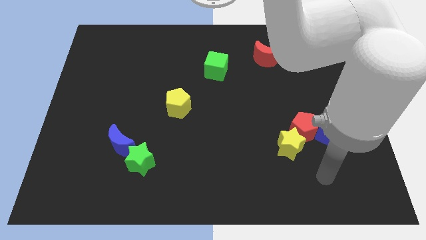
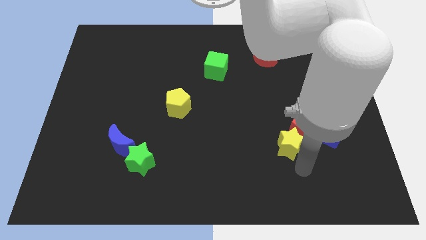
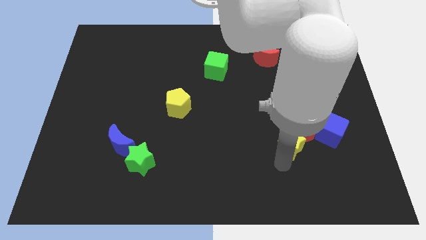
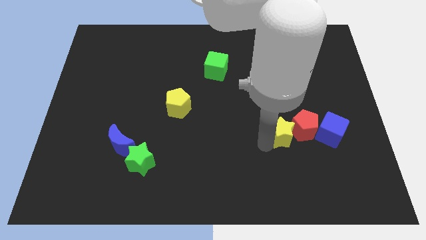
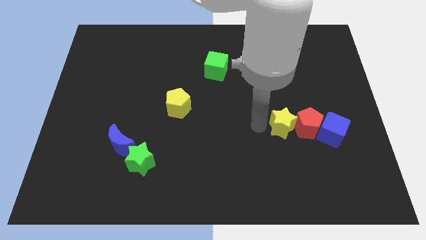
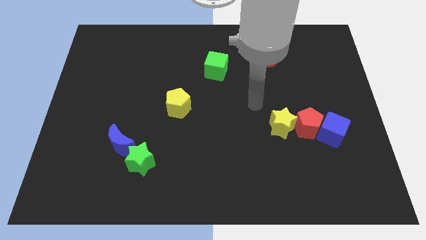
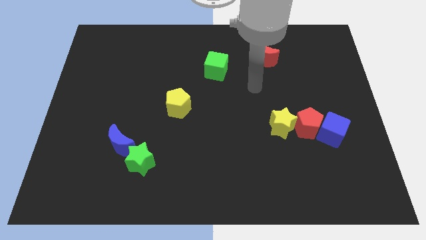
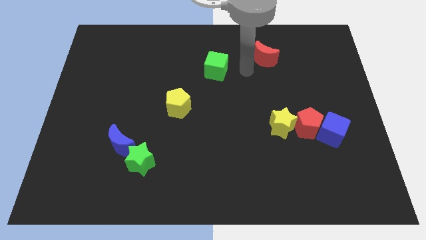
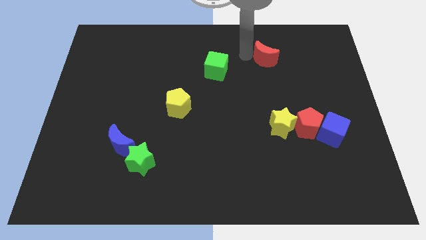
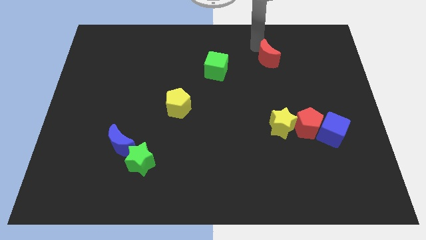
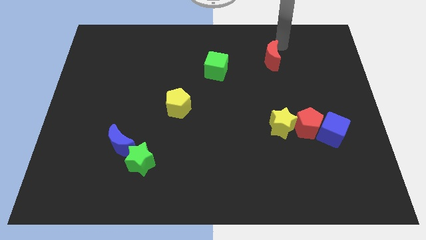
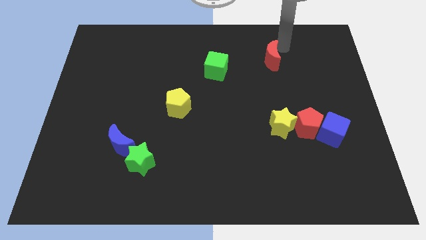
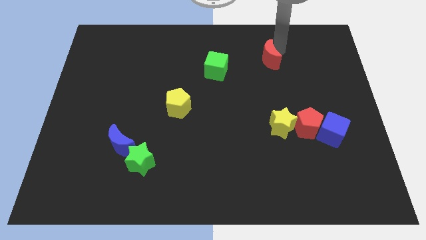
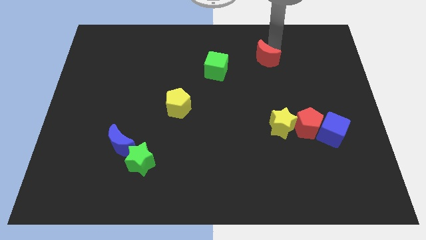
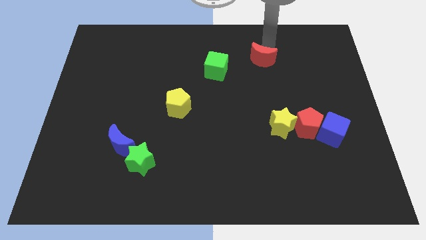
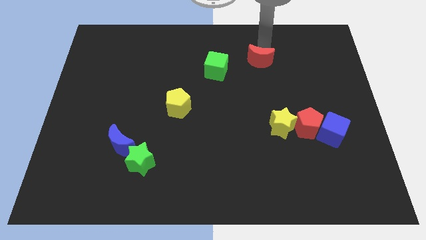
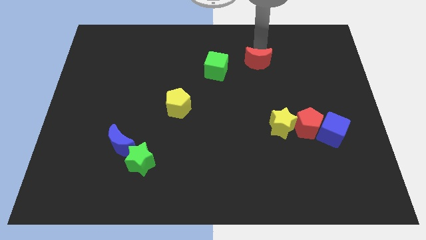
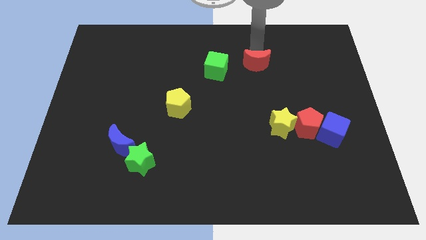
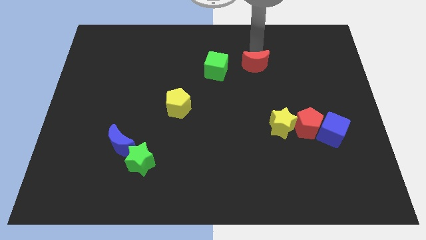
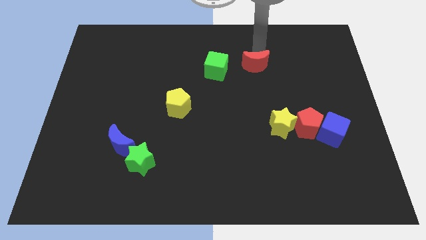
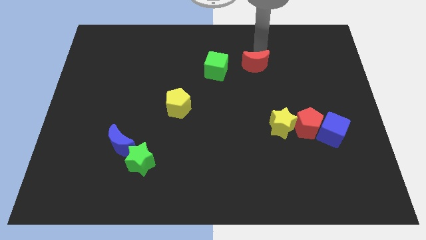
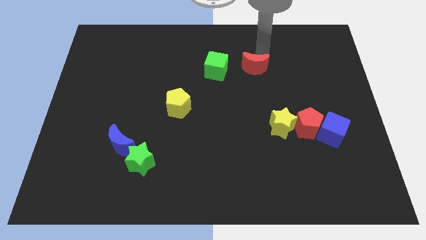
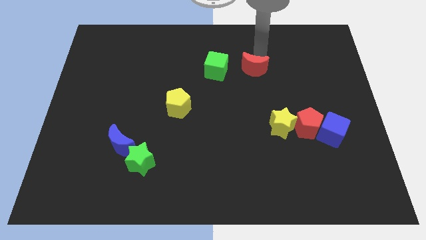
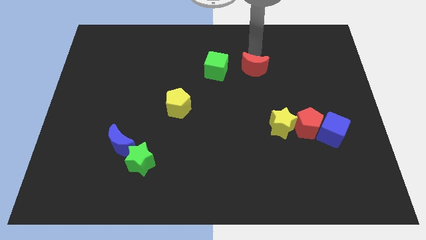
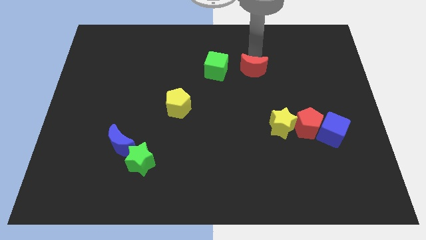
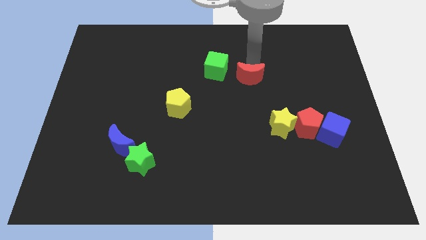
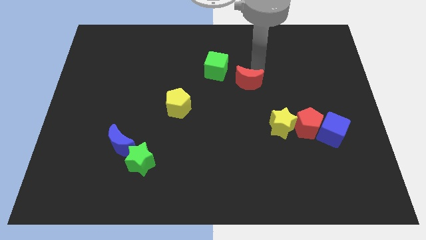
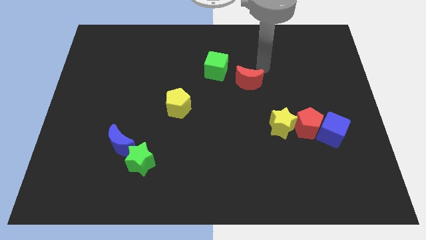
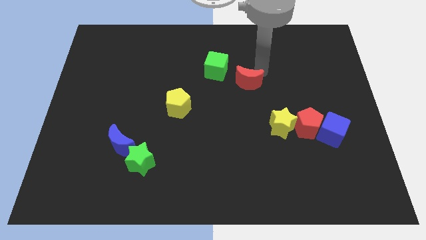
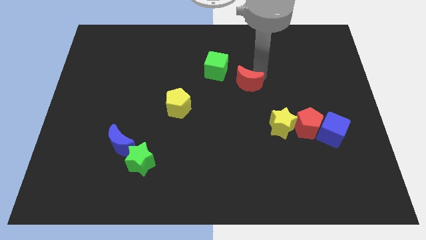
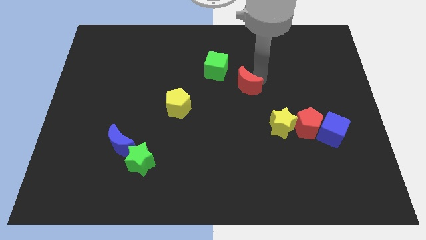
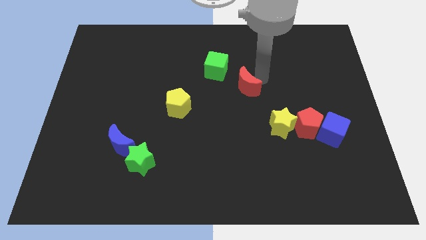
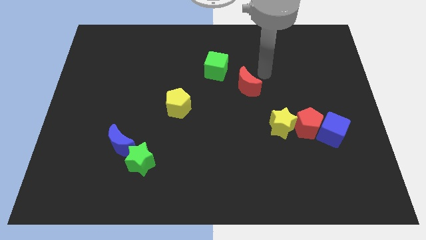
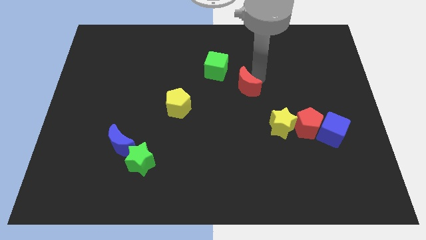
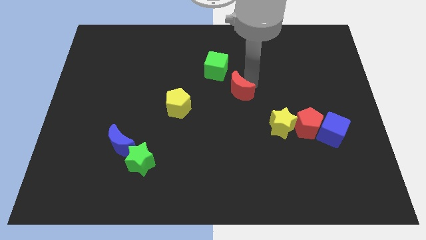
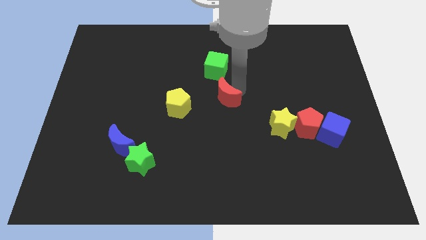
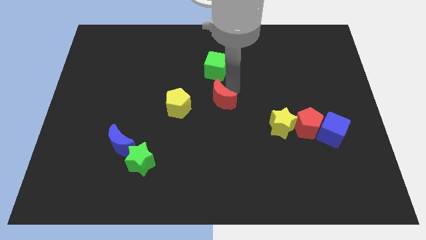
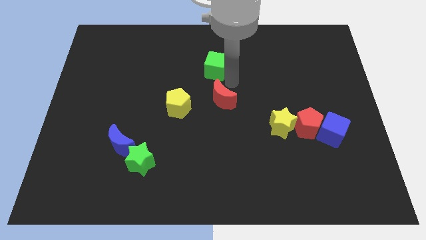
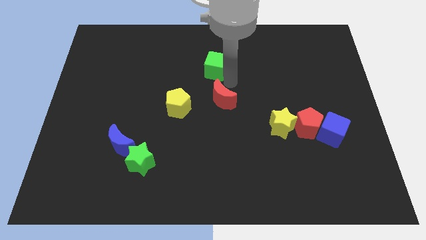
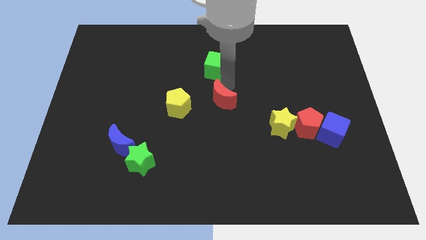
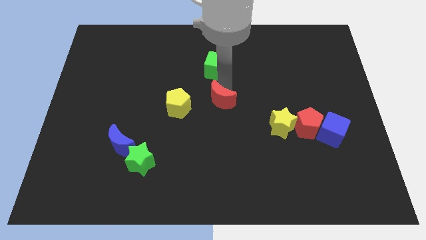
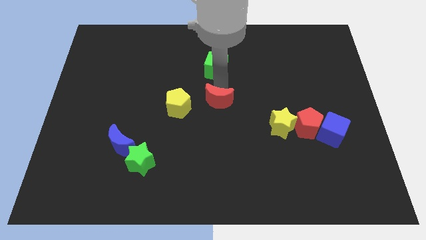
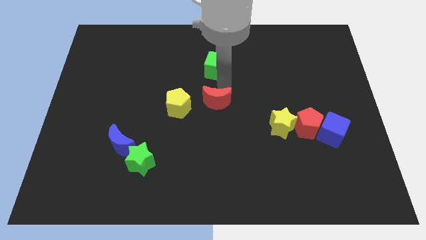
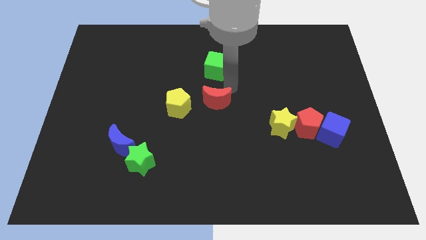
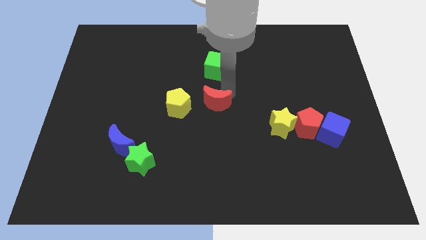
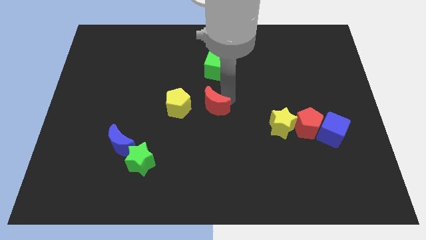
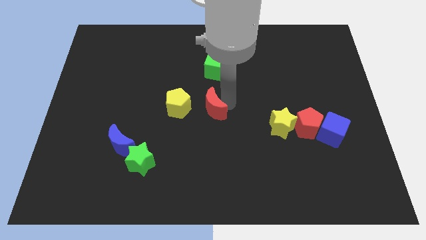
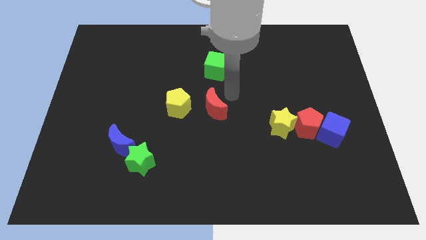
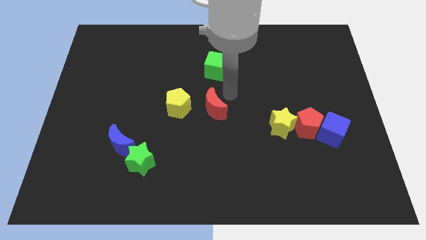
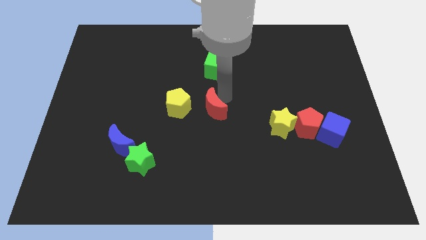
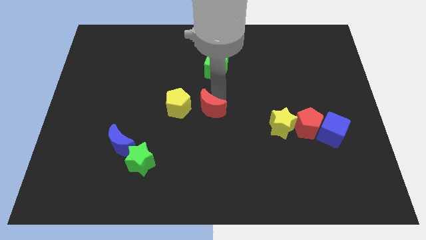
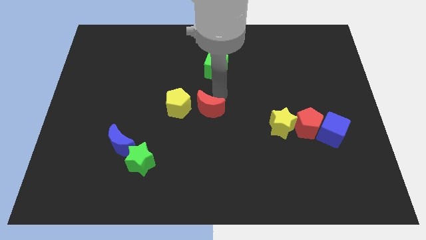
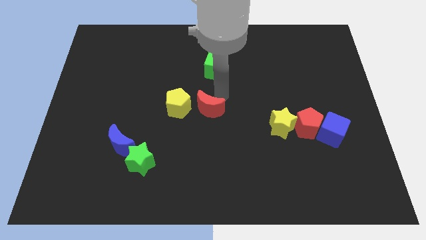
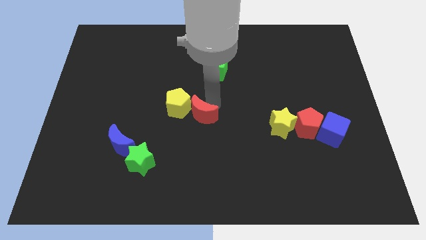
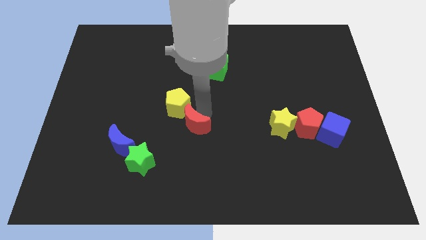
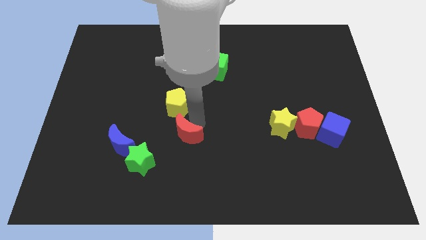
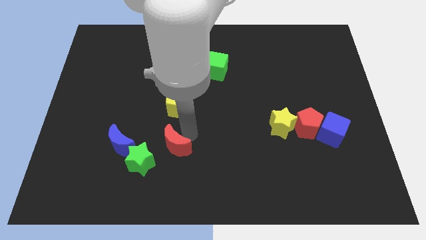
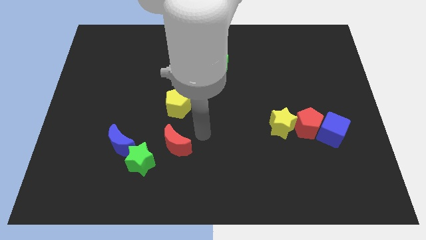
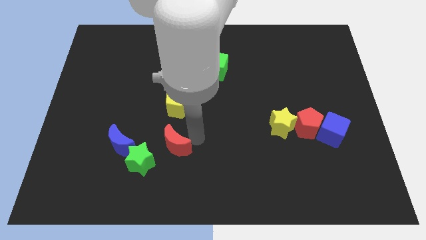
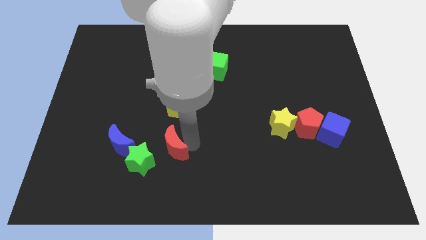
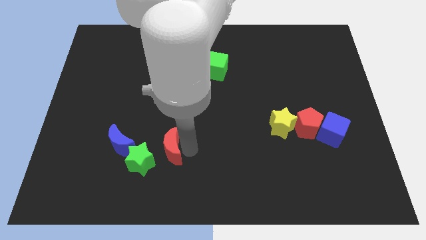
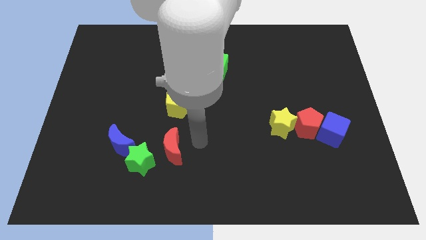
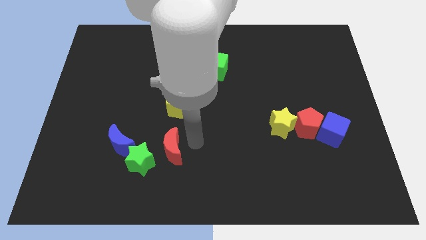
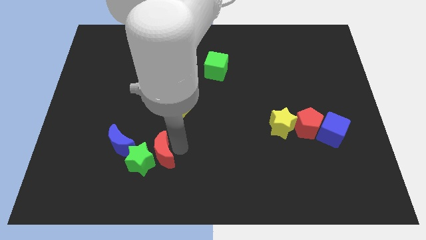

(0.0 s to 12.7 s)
slide the red moon next to the green star
